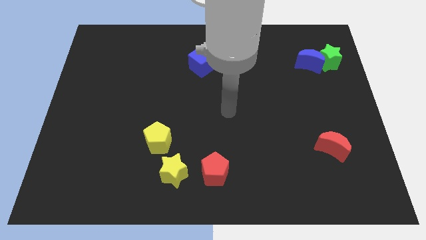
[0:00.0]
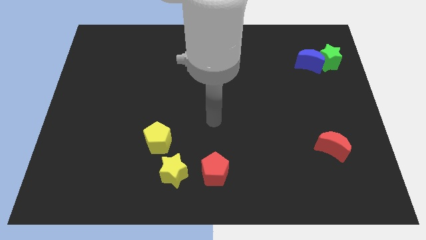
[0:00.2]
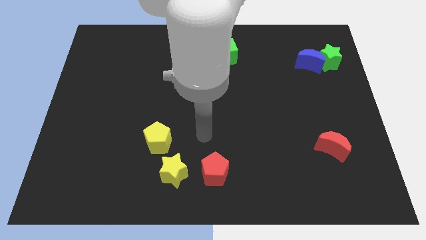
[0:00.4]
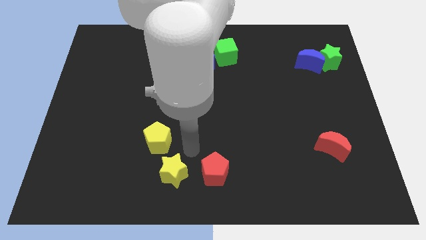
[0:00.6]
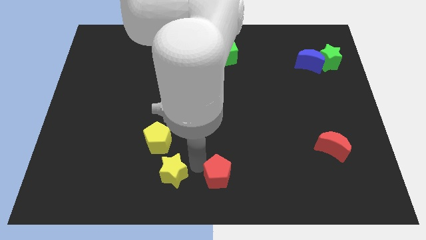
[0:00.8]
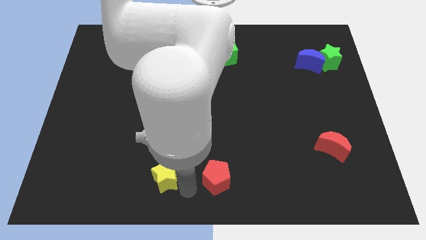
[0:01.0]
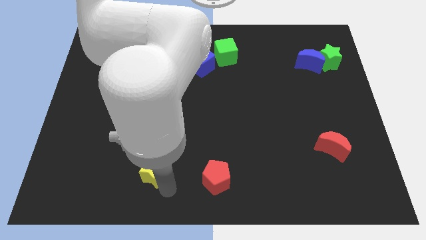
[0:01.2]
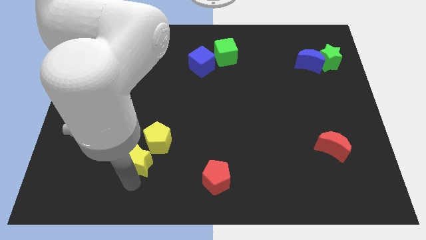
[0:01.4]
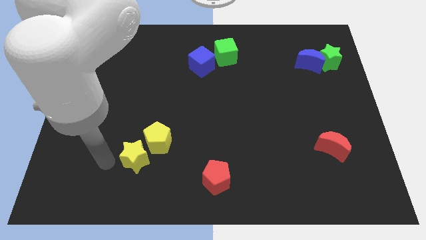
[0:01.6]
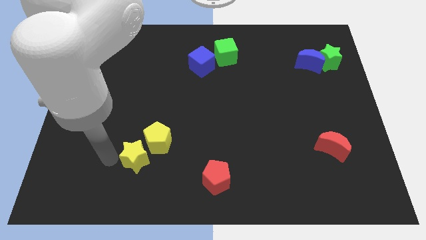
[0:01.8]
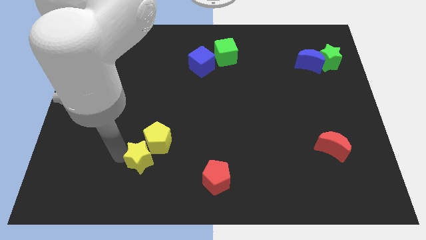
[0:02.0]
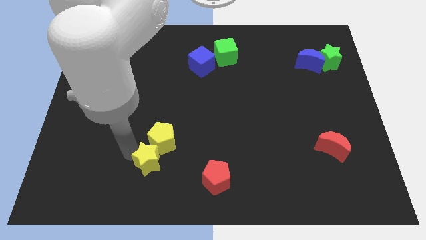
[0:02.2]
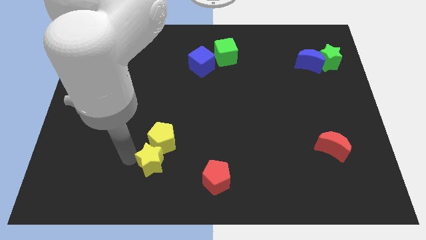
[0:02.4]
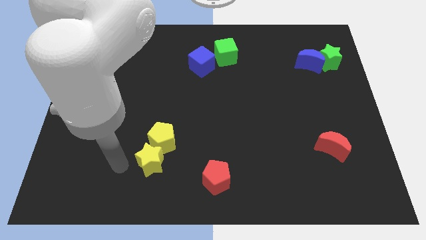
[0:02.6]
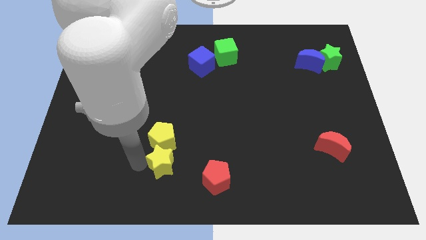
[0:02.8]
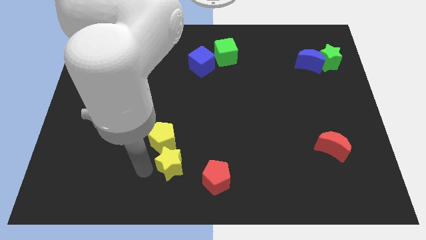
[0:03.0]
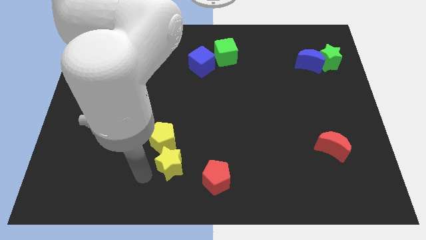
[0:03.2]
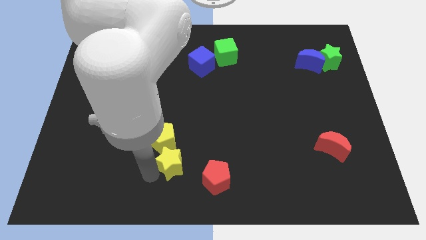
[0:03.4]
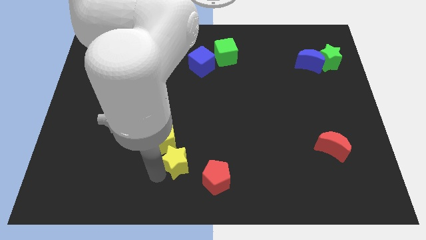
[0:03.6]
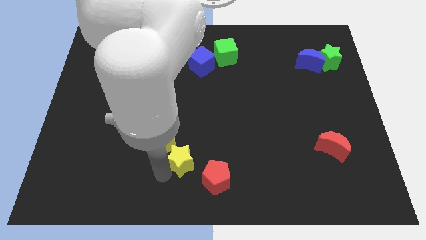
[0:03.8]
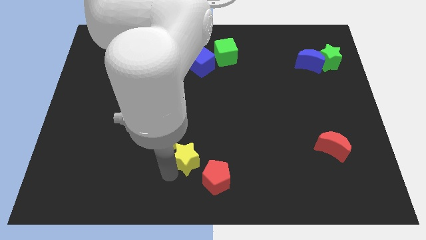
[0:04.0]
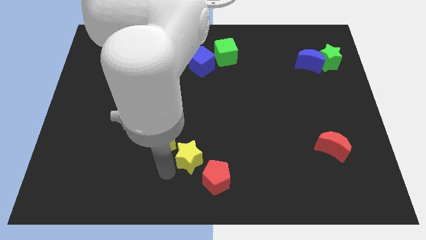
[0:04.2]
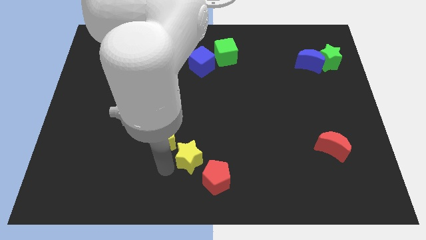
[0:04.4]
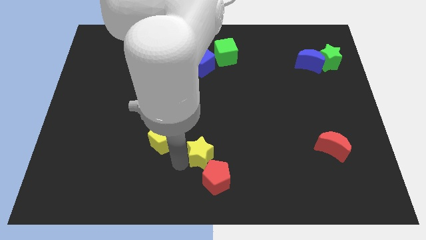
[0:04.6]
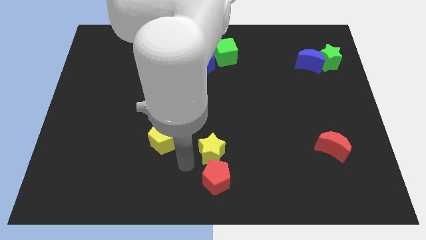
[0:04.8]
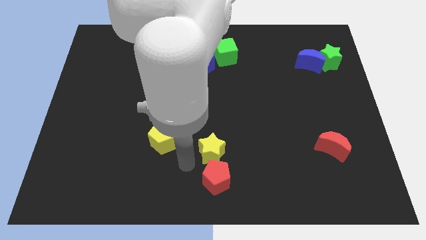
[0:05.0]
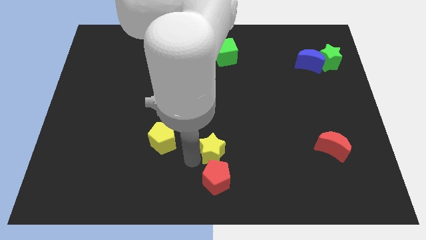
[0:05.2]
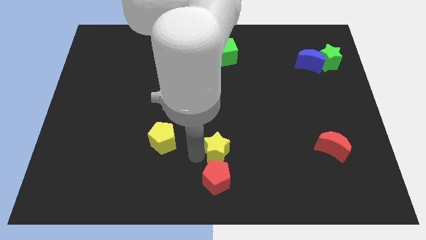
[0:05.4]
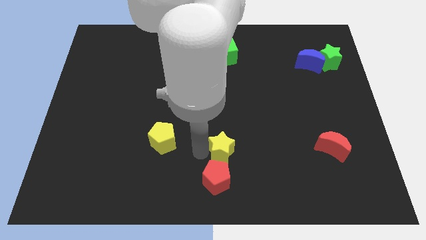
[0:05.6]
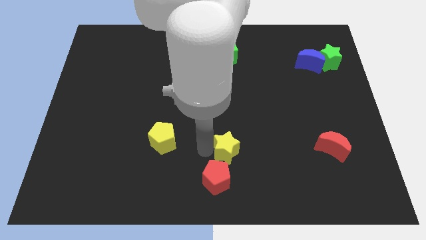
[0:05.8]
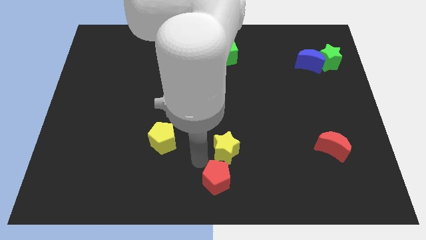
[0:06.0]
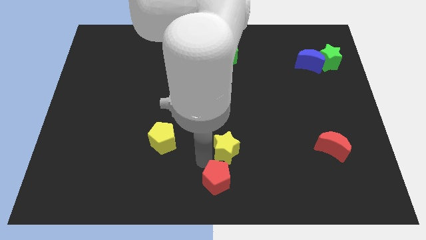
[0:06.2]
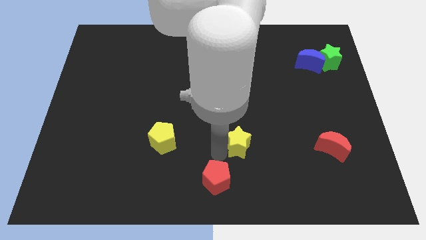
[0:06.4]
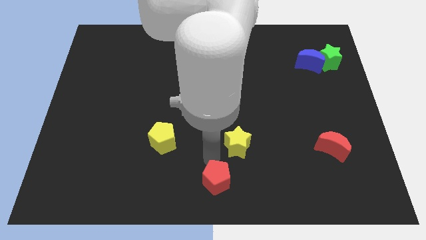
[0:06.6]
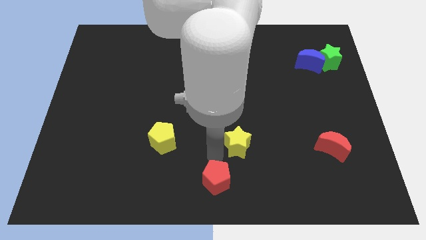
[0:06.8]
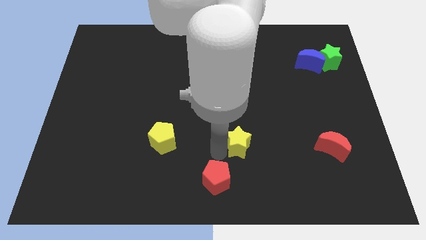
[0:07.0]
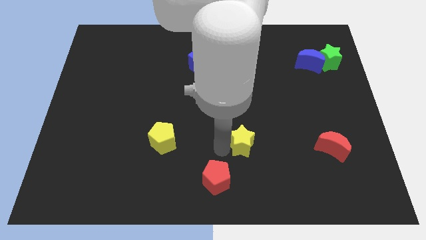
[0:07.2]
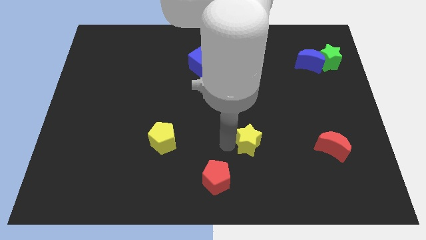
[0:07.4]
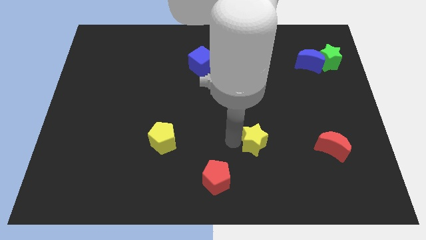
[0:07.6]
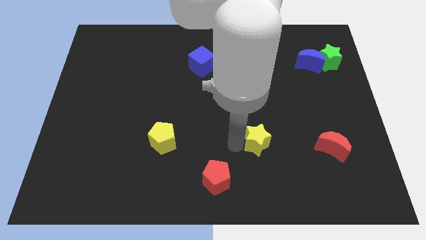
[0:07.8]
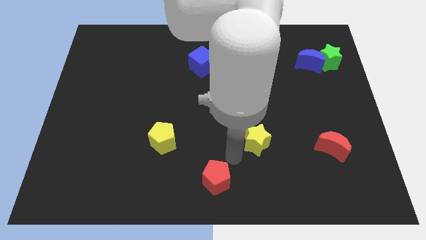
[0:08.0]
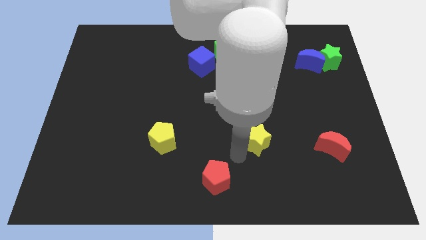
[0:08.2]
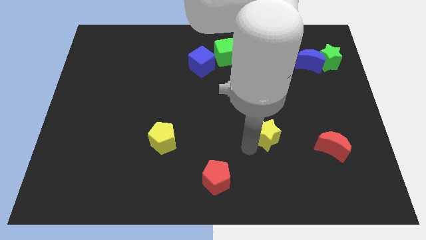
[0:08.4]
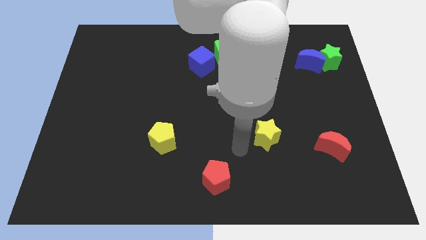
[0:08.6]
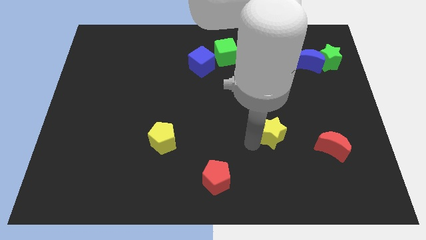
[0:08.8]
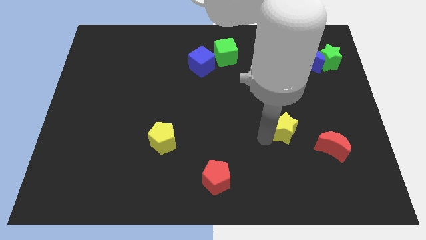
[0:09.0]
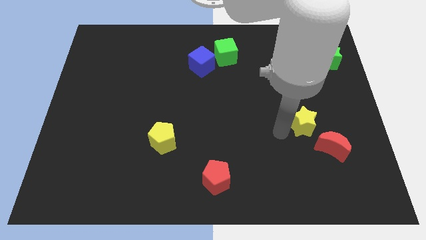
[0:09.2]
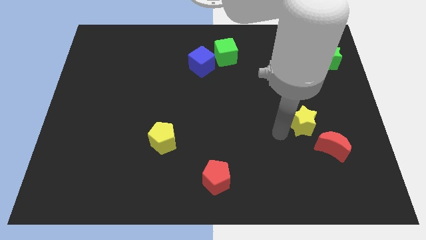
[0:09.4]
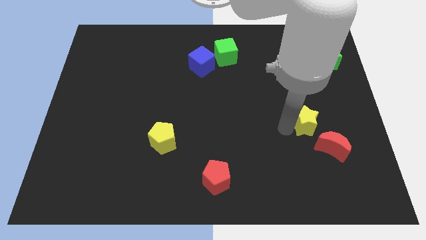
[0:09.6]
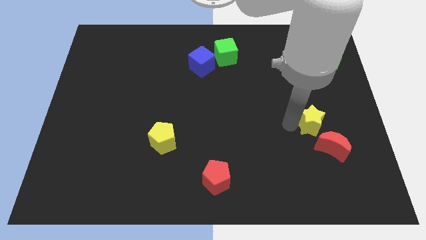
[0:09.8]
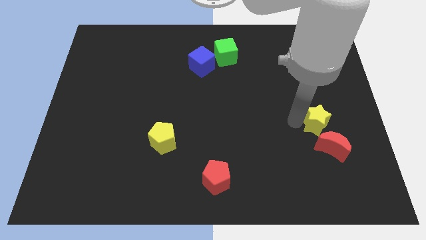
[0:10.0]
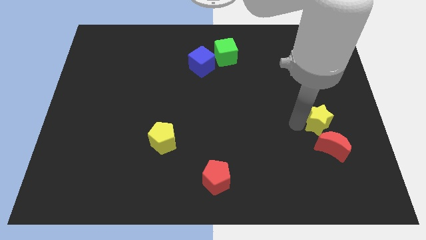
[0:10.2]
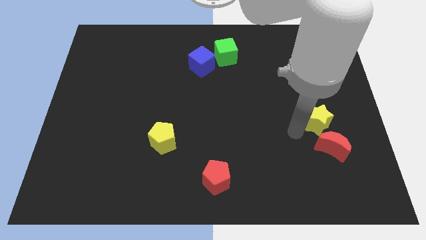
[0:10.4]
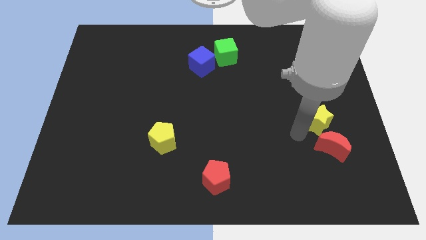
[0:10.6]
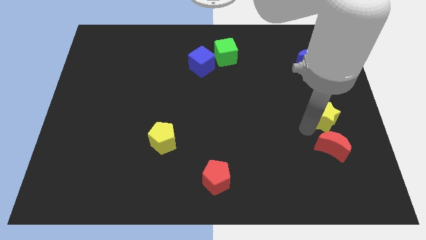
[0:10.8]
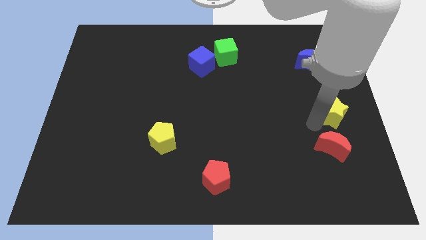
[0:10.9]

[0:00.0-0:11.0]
move the yellow star to the center right

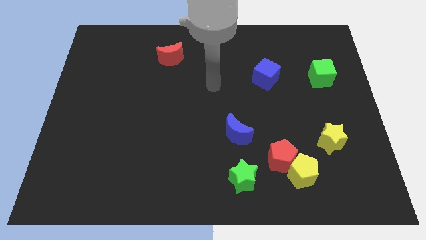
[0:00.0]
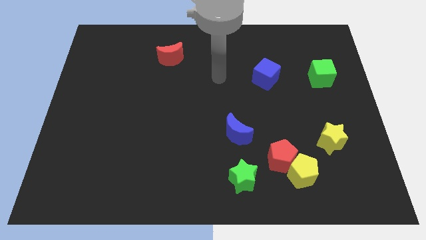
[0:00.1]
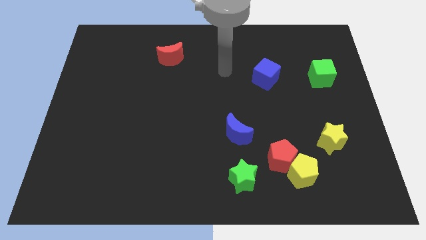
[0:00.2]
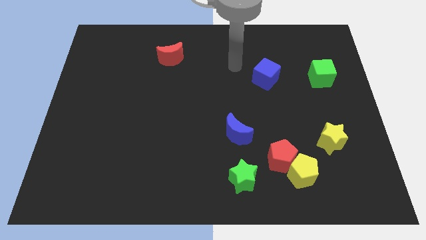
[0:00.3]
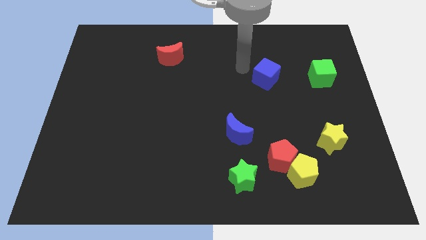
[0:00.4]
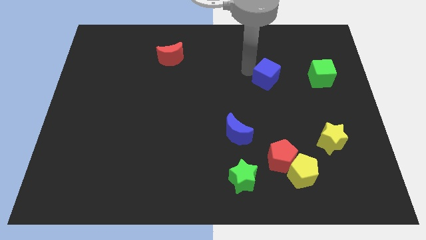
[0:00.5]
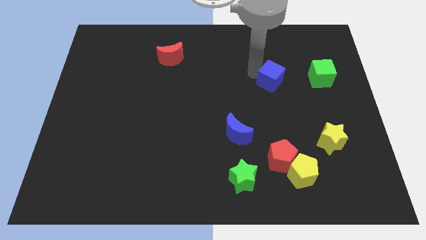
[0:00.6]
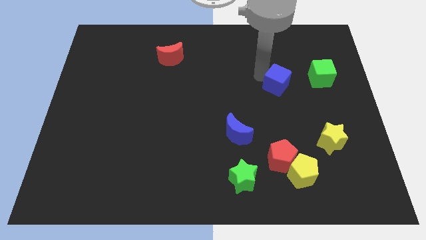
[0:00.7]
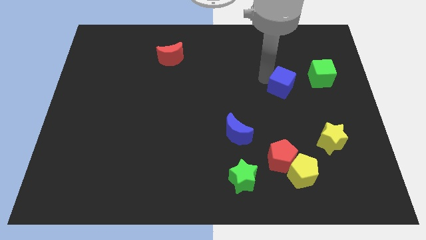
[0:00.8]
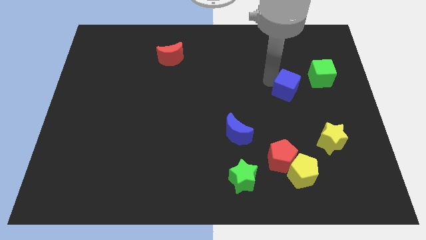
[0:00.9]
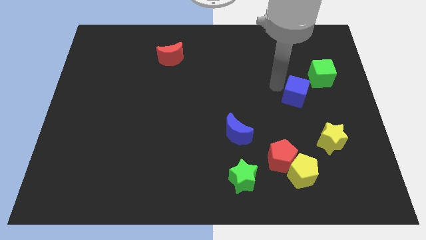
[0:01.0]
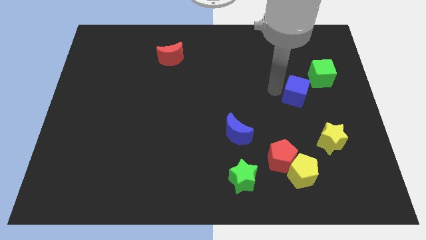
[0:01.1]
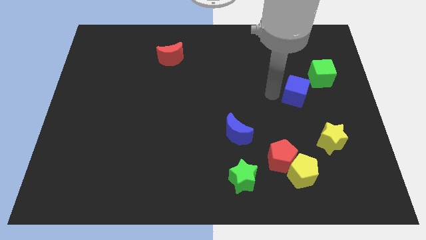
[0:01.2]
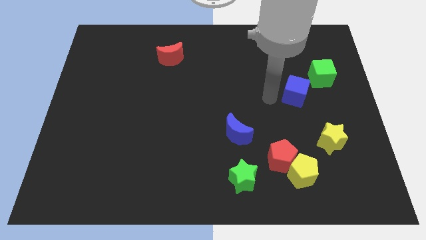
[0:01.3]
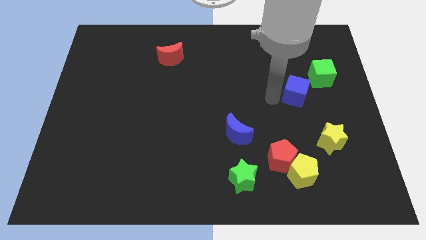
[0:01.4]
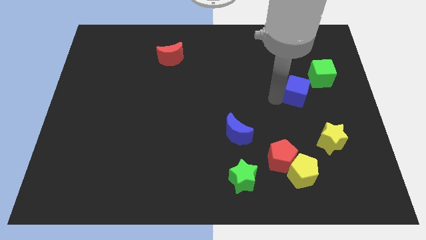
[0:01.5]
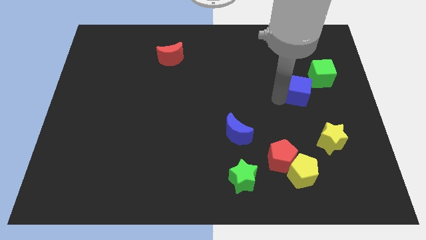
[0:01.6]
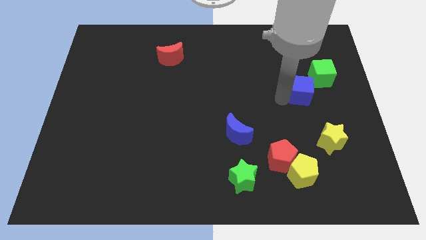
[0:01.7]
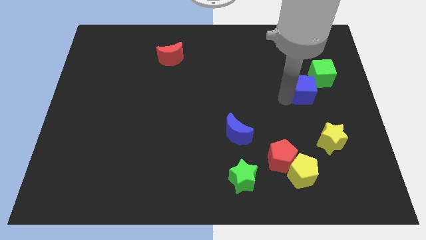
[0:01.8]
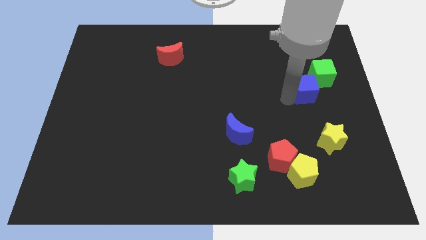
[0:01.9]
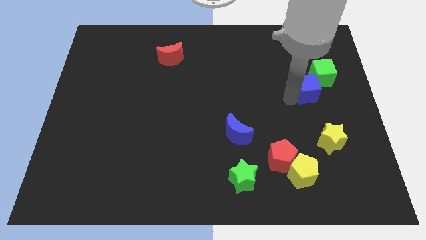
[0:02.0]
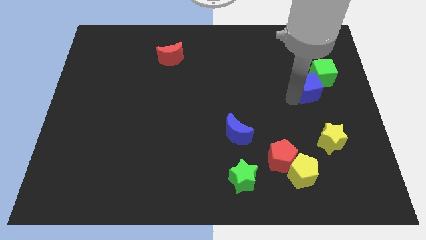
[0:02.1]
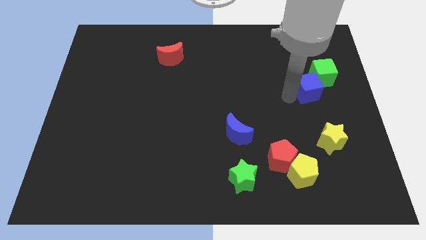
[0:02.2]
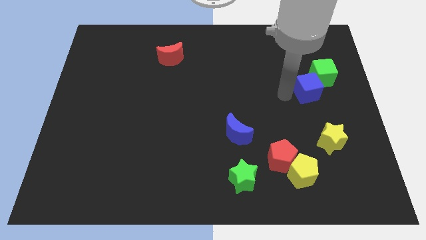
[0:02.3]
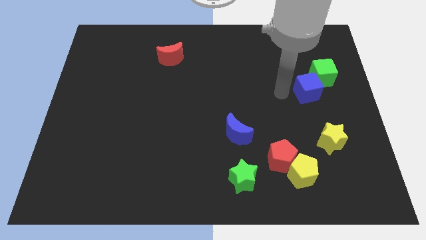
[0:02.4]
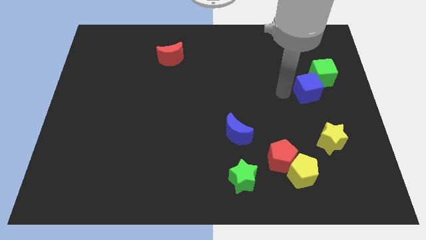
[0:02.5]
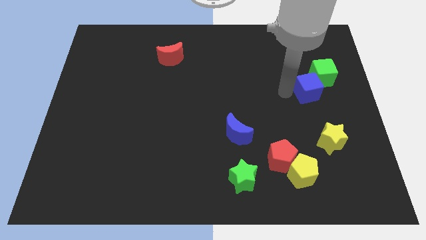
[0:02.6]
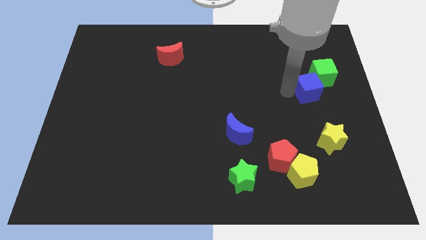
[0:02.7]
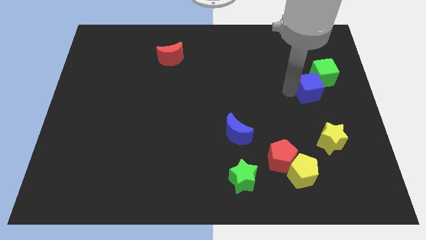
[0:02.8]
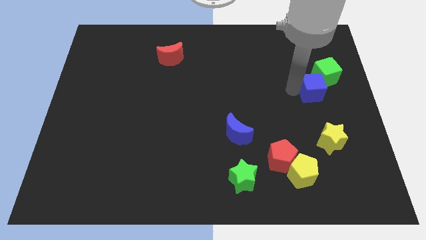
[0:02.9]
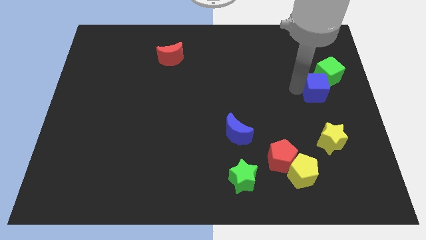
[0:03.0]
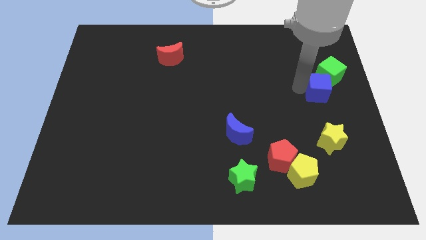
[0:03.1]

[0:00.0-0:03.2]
move the blue cube to the center right
